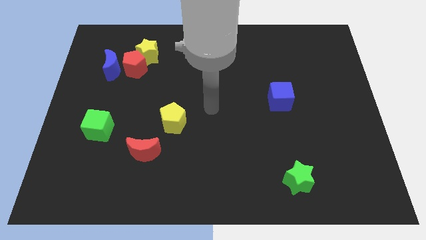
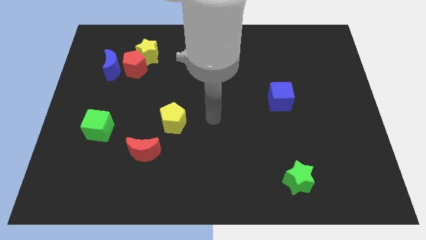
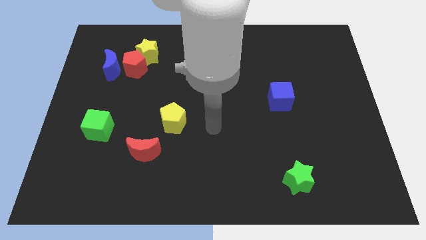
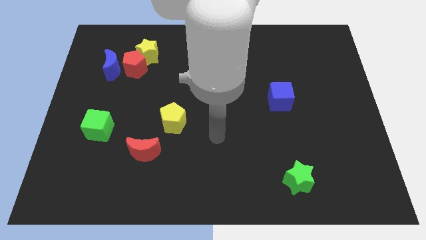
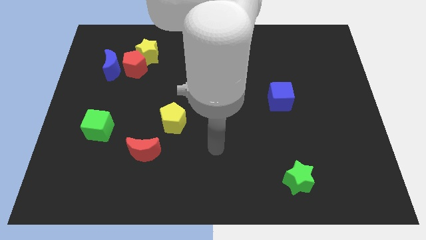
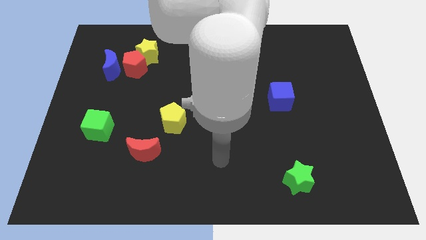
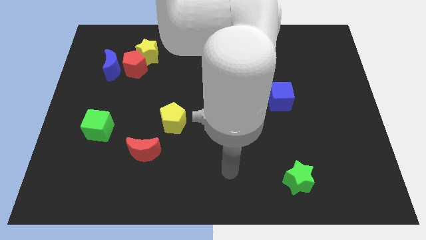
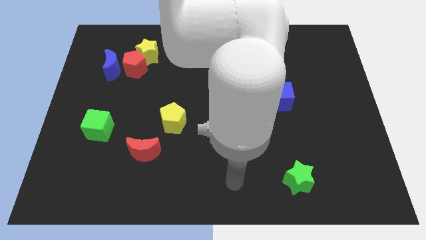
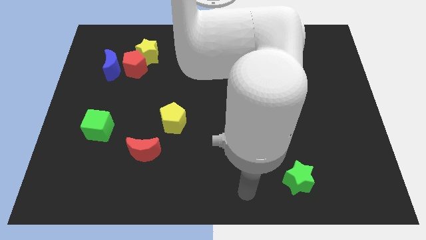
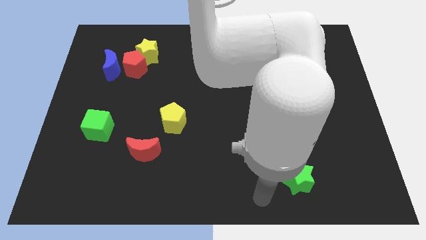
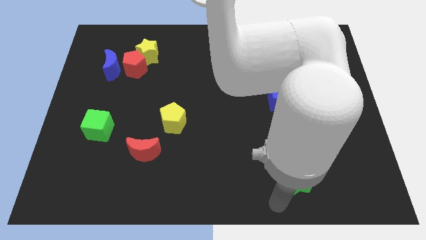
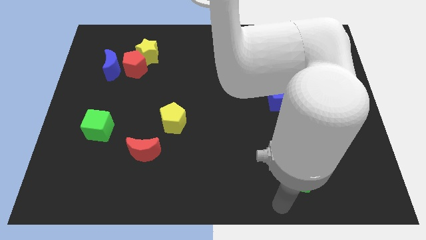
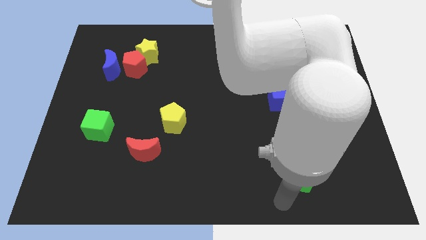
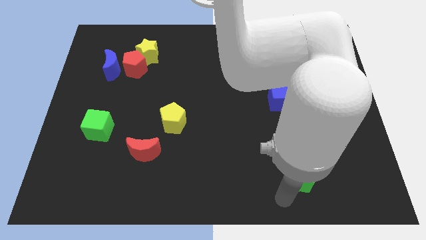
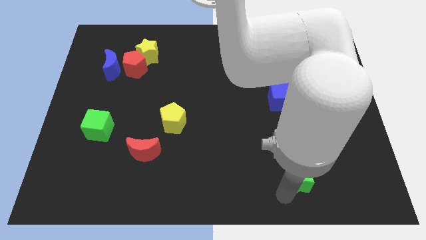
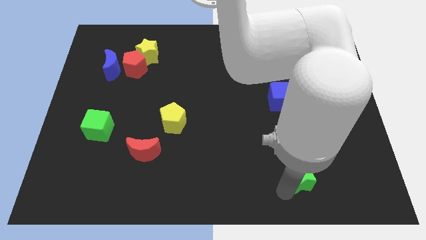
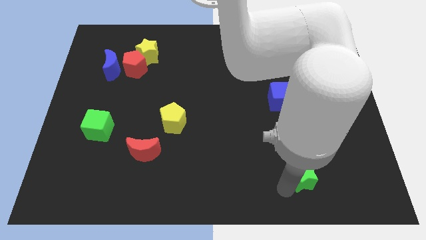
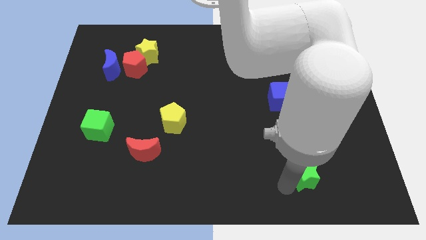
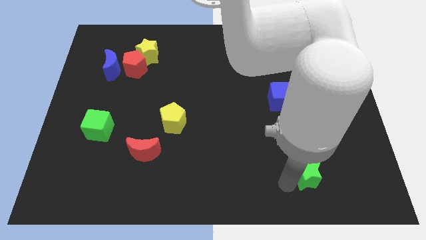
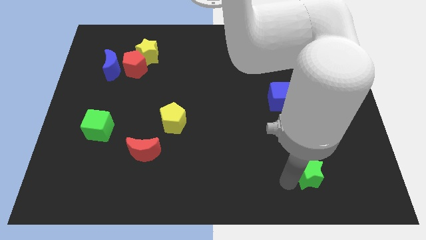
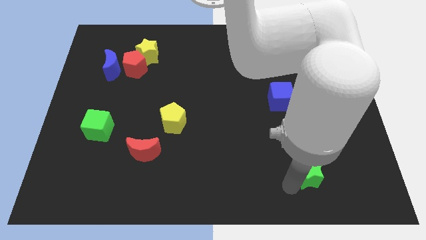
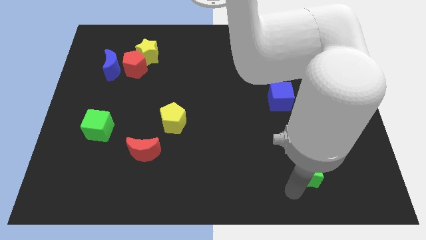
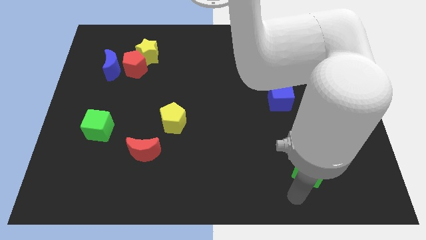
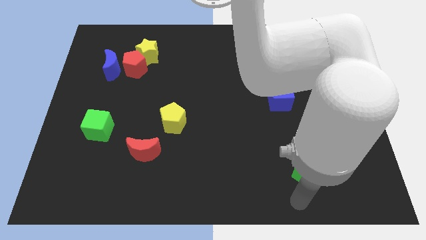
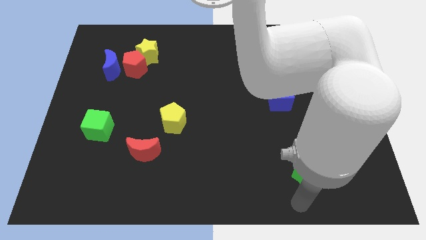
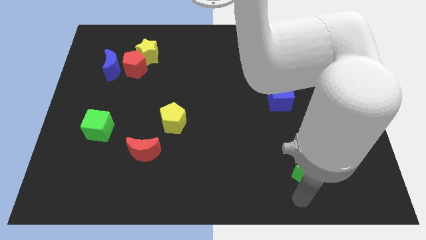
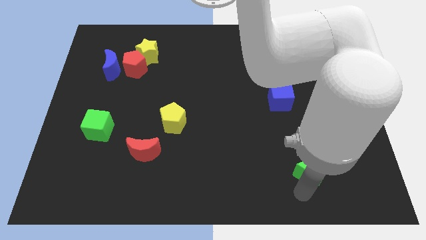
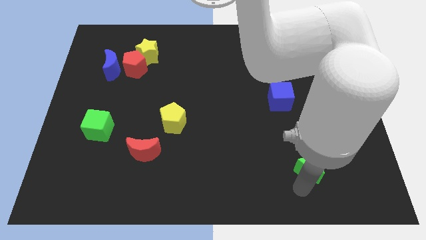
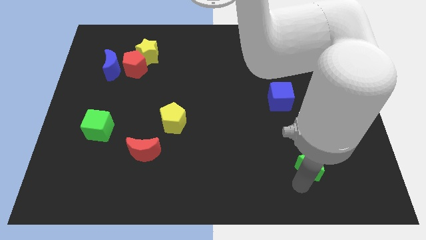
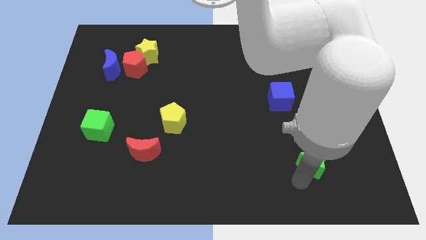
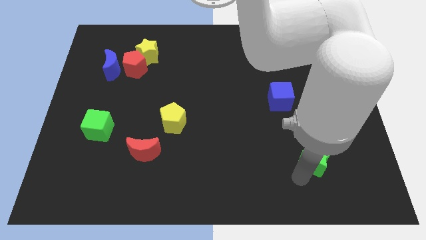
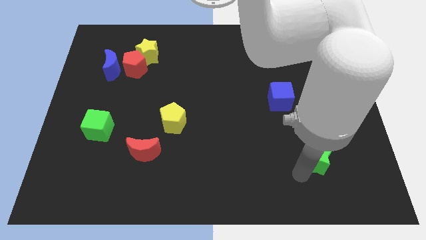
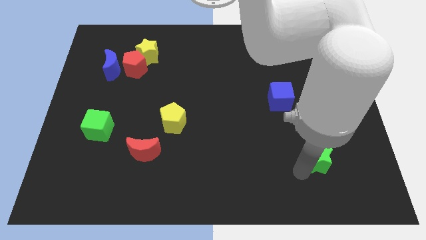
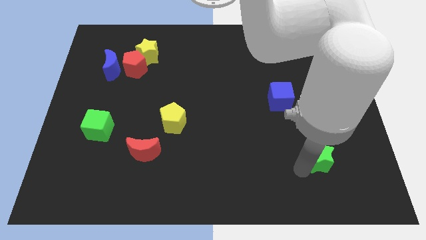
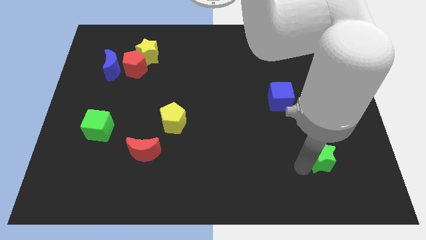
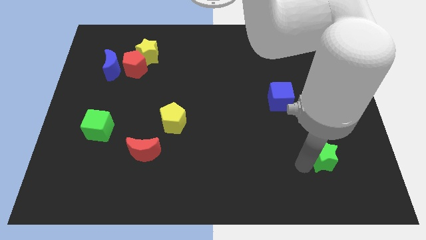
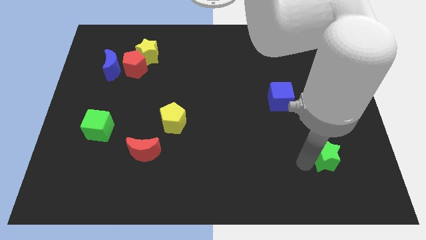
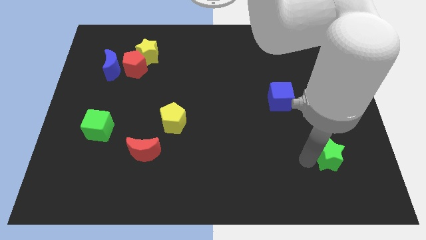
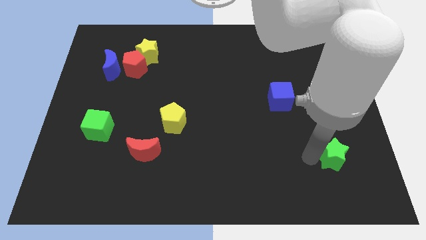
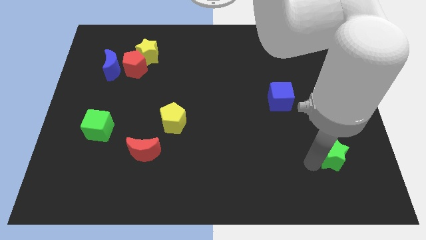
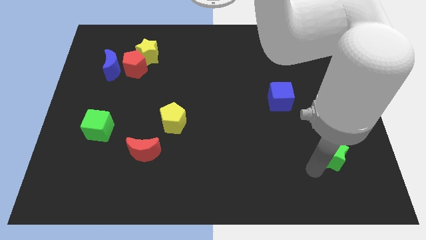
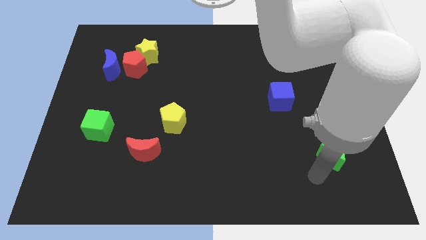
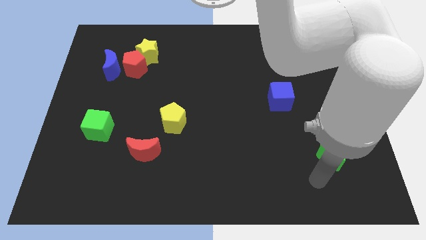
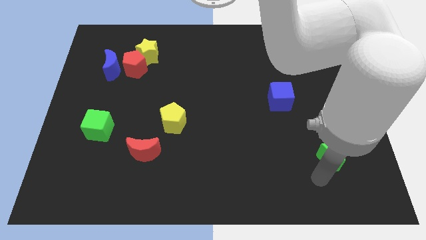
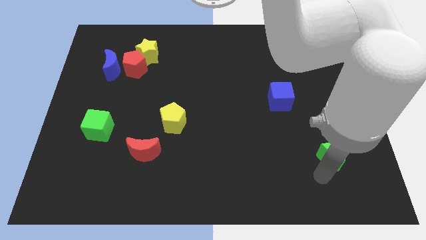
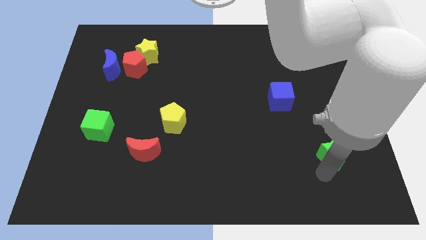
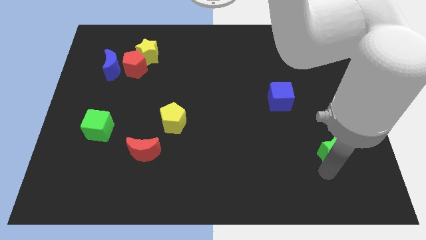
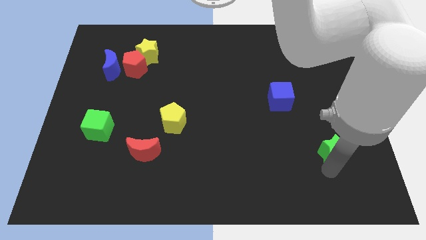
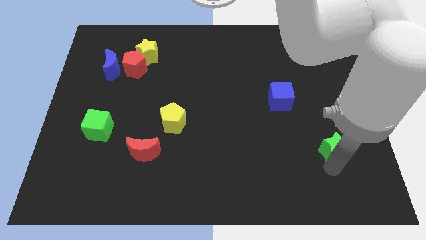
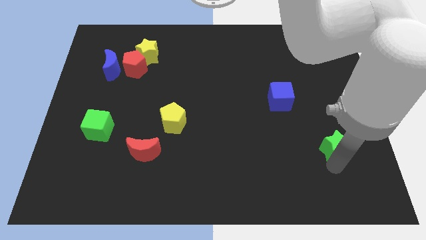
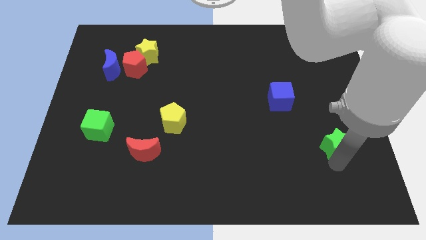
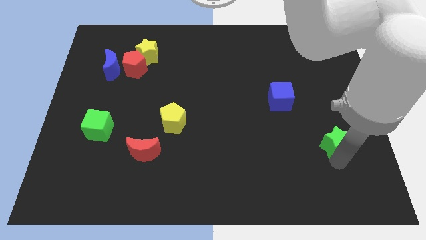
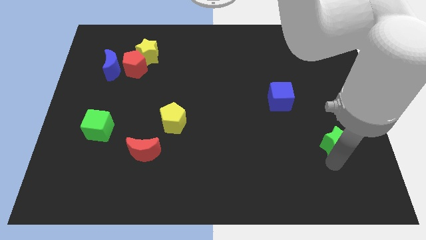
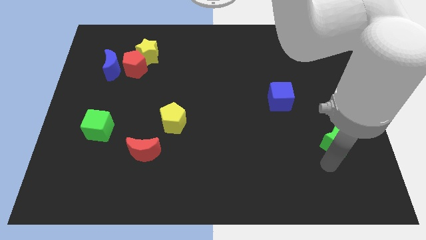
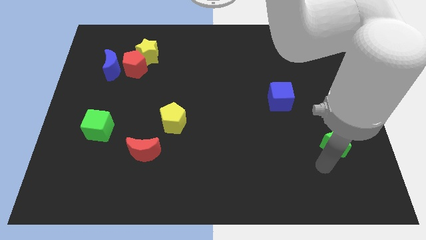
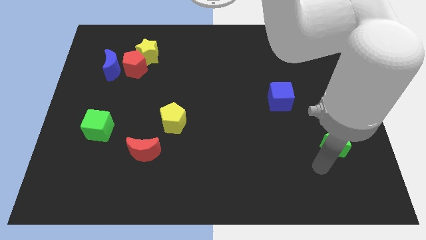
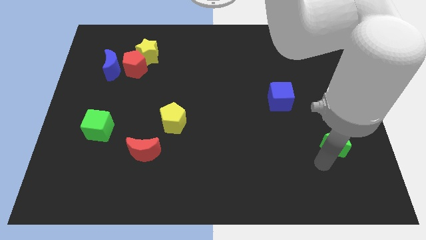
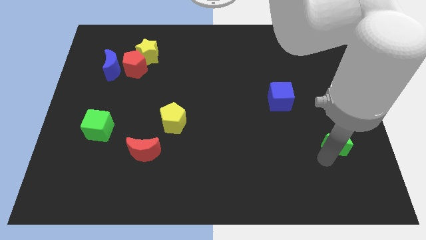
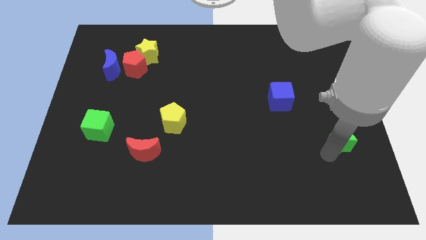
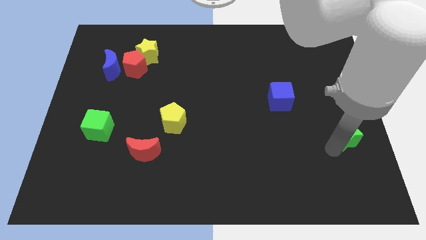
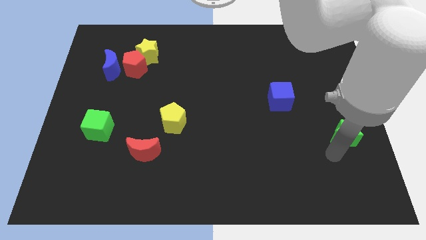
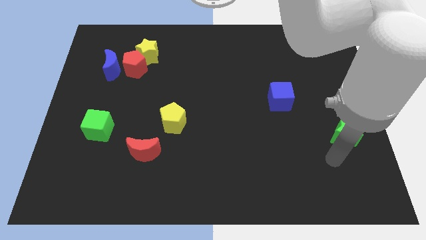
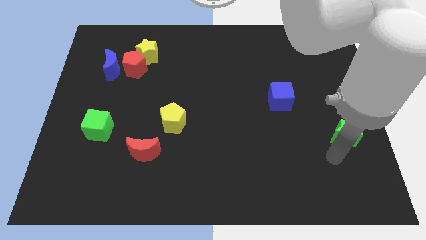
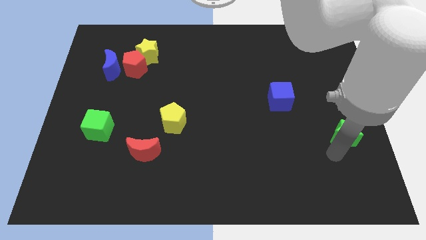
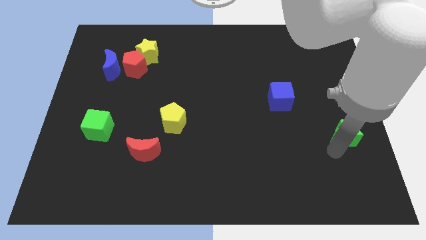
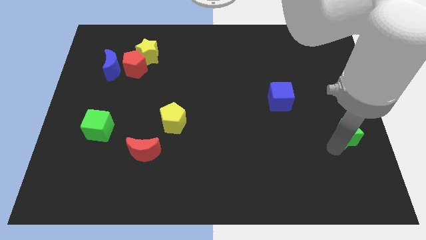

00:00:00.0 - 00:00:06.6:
slide the green star to the right side of the board
